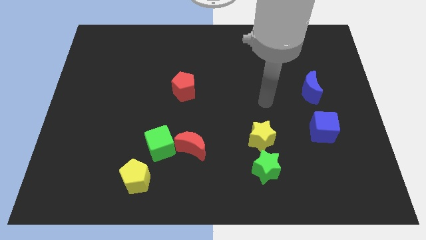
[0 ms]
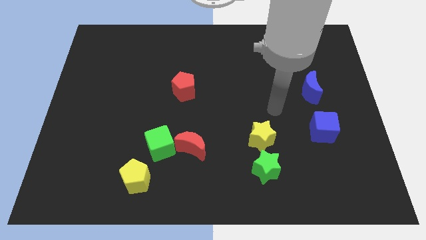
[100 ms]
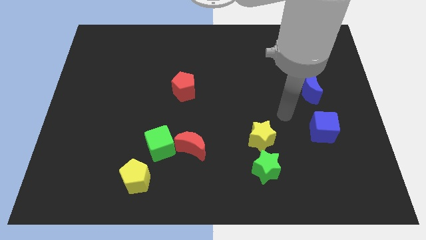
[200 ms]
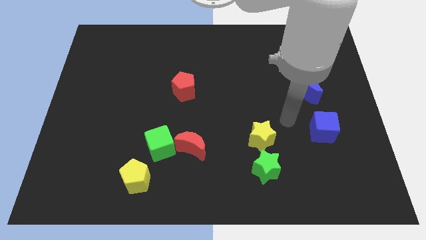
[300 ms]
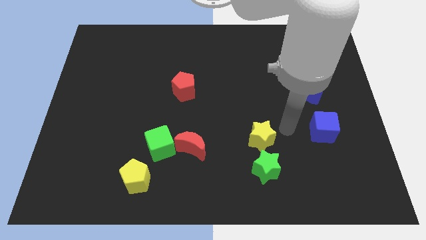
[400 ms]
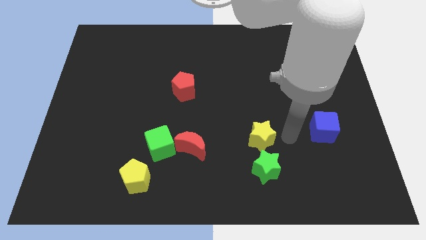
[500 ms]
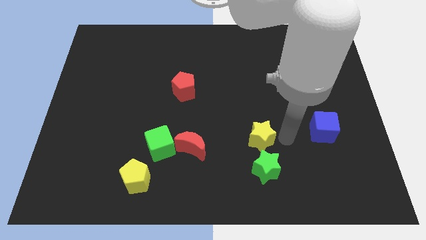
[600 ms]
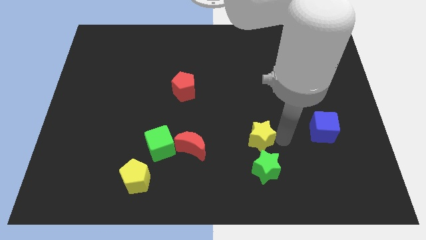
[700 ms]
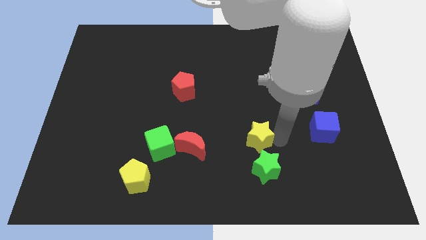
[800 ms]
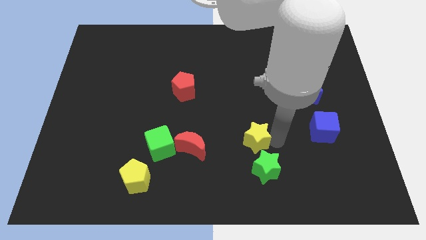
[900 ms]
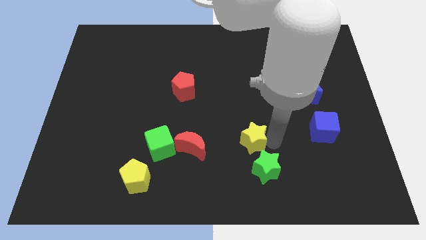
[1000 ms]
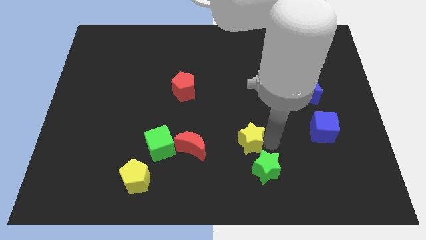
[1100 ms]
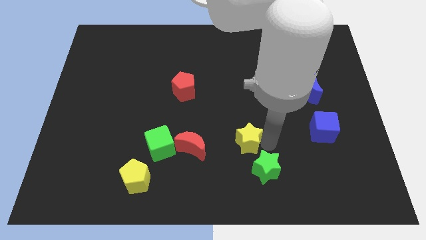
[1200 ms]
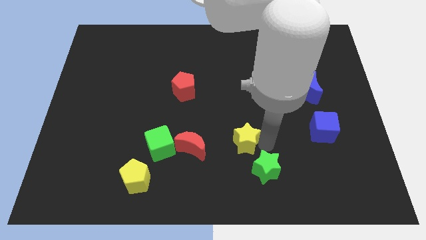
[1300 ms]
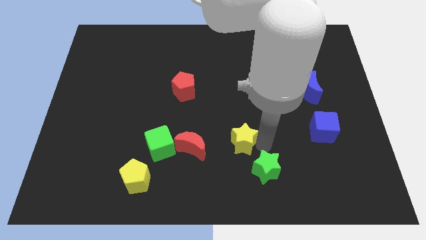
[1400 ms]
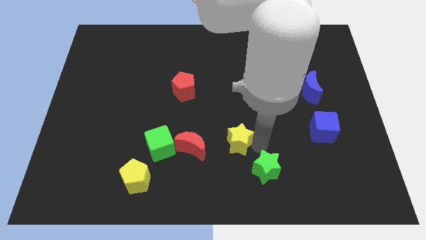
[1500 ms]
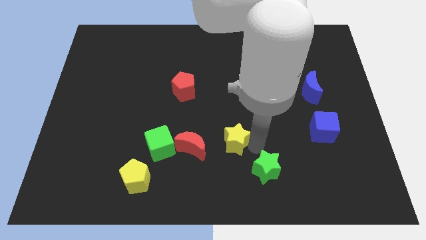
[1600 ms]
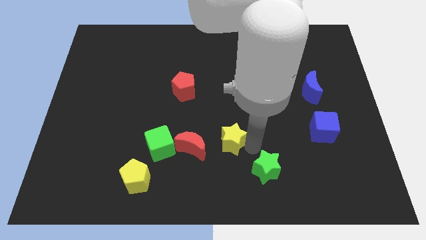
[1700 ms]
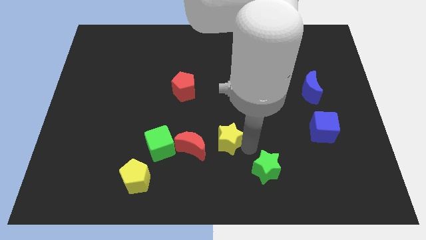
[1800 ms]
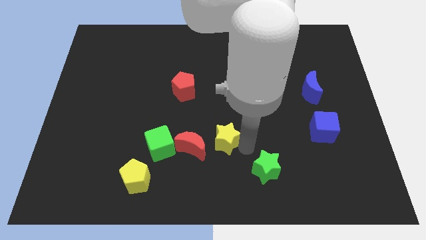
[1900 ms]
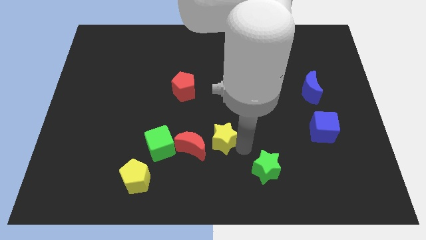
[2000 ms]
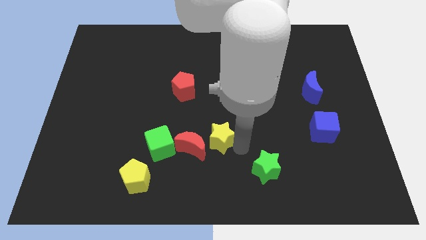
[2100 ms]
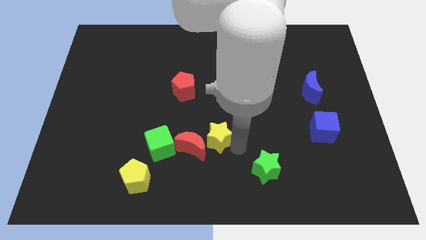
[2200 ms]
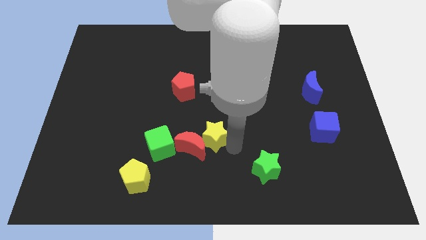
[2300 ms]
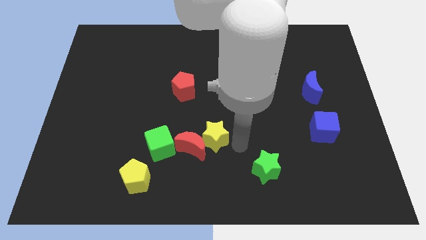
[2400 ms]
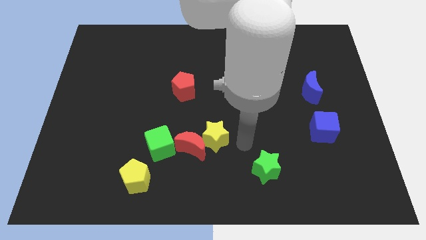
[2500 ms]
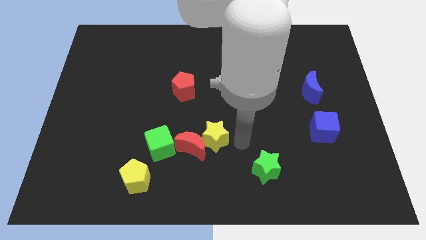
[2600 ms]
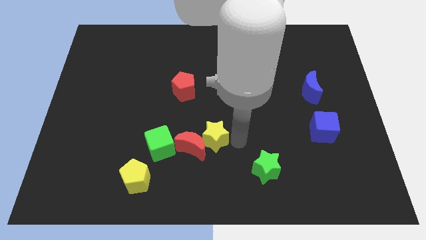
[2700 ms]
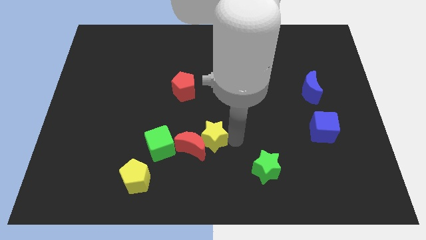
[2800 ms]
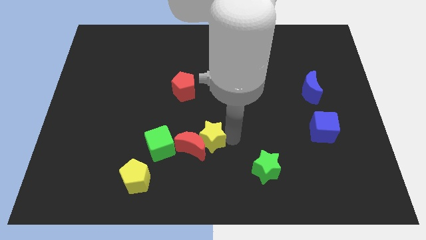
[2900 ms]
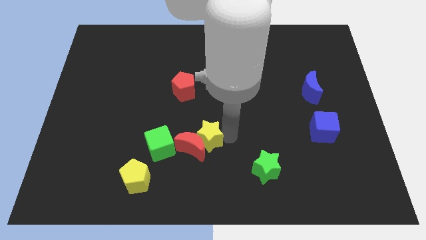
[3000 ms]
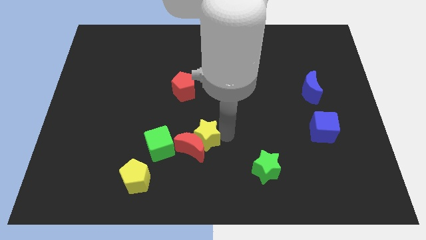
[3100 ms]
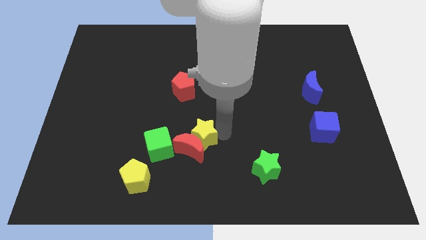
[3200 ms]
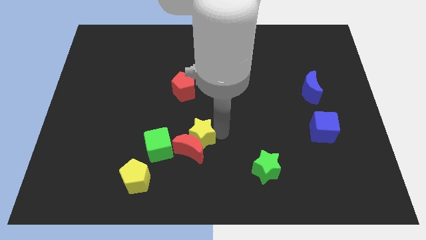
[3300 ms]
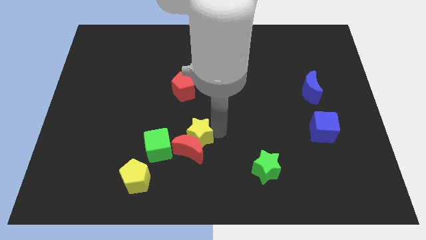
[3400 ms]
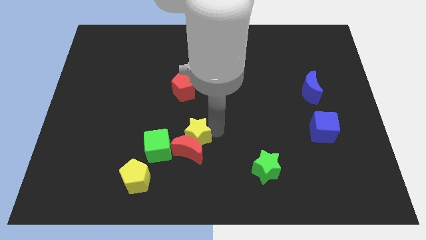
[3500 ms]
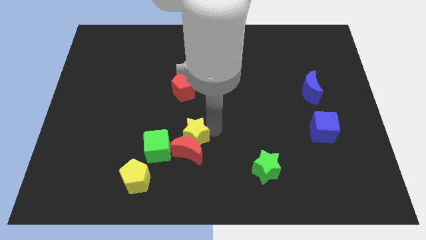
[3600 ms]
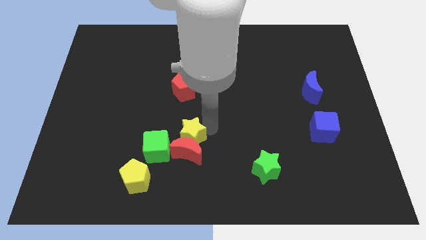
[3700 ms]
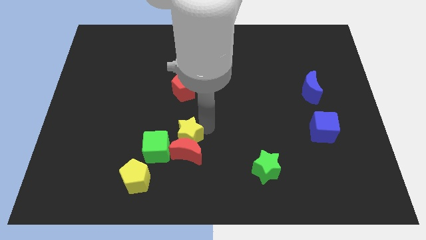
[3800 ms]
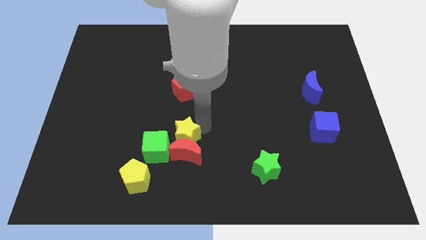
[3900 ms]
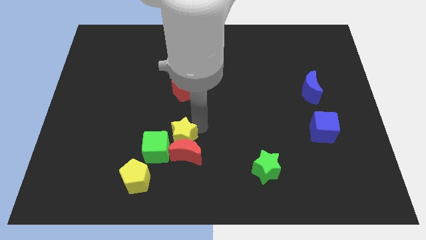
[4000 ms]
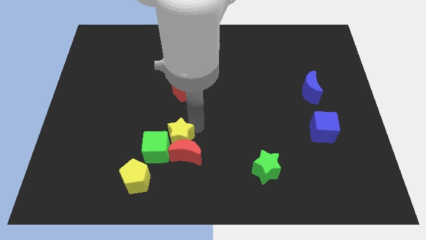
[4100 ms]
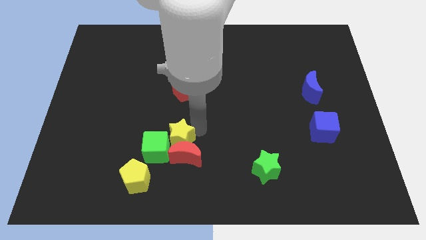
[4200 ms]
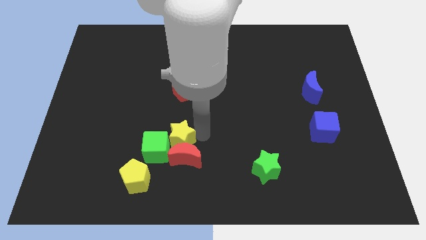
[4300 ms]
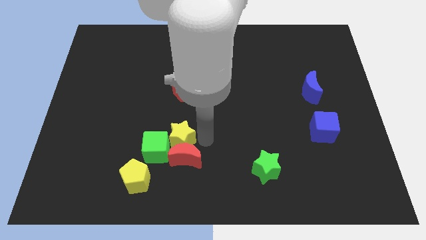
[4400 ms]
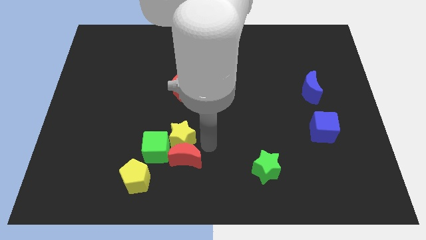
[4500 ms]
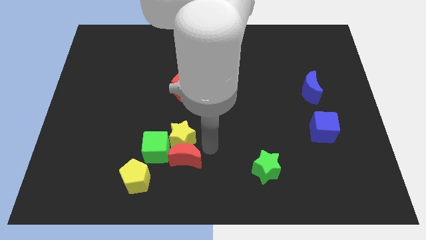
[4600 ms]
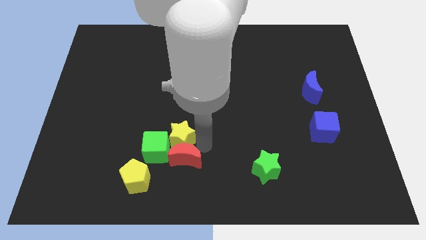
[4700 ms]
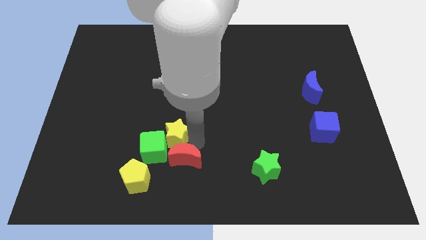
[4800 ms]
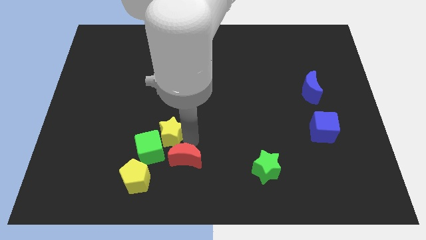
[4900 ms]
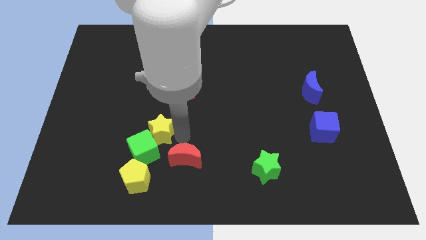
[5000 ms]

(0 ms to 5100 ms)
push the yellow star left

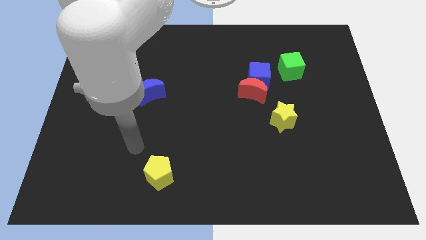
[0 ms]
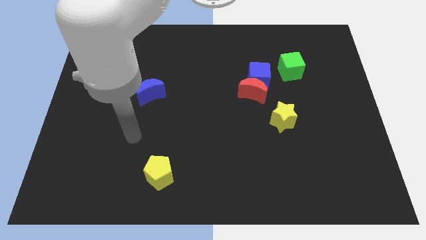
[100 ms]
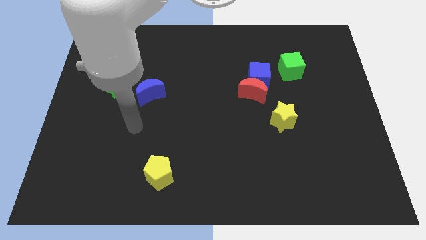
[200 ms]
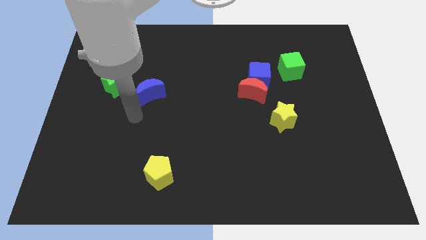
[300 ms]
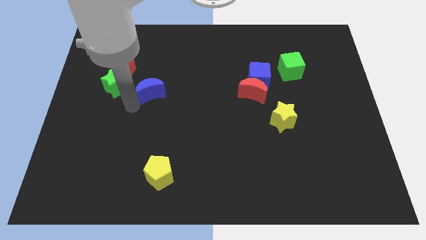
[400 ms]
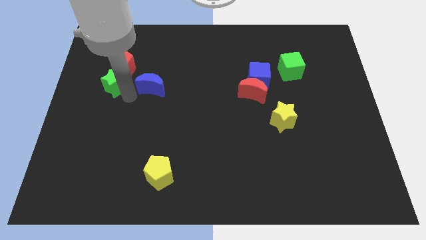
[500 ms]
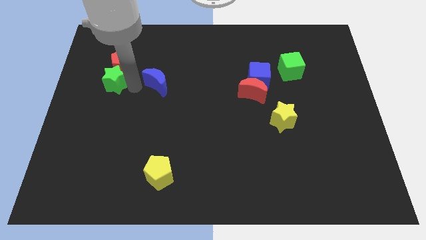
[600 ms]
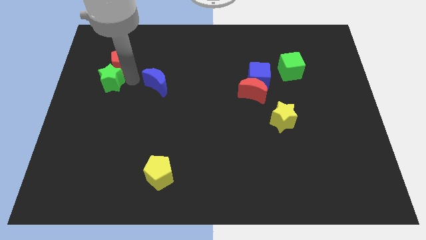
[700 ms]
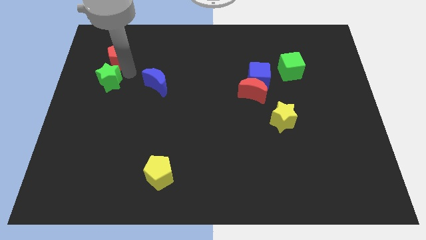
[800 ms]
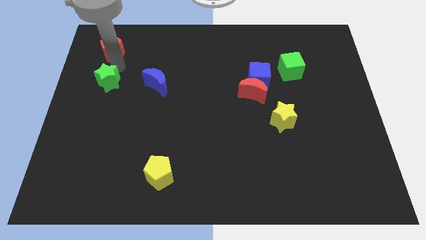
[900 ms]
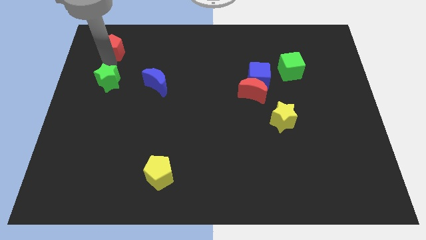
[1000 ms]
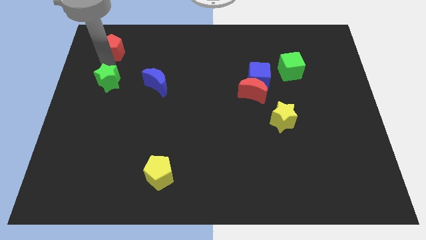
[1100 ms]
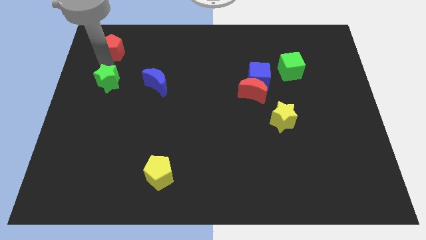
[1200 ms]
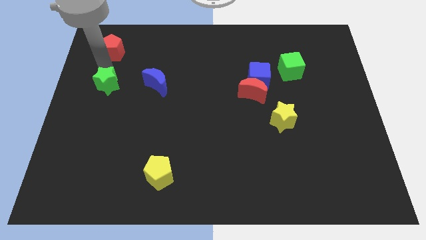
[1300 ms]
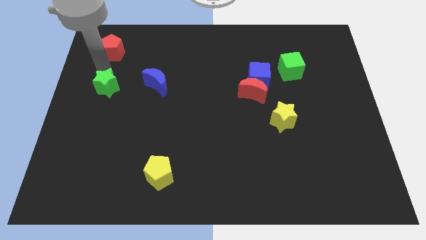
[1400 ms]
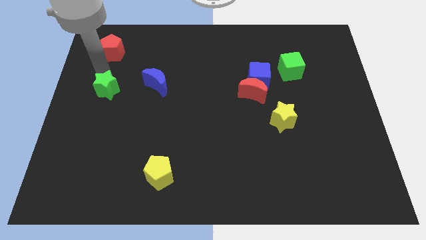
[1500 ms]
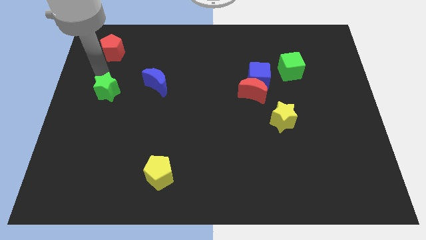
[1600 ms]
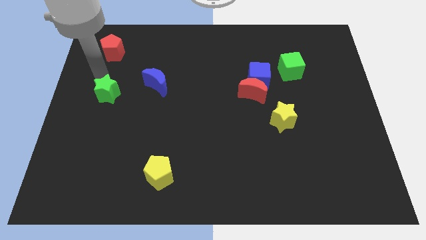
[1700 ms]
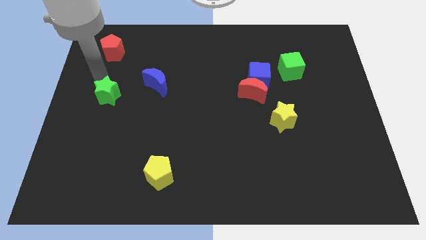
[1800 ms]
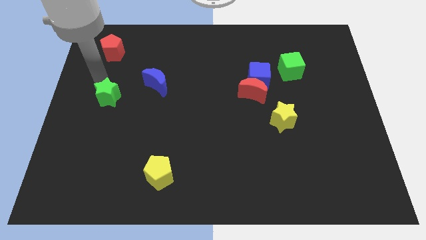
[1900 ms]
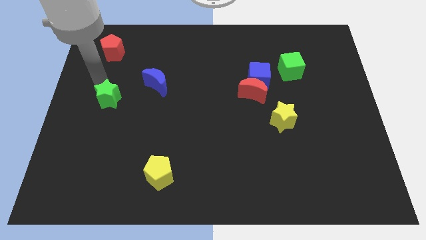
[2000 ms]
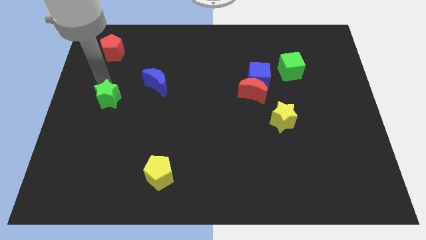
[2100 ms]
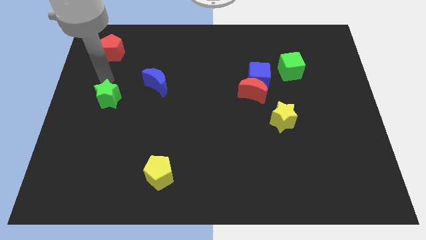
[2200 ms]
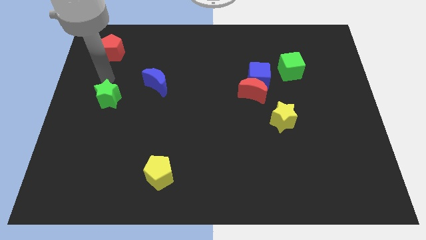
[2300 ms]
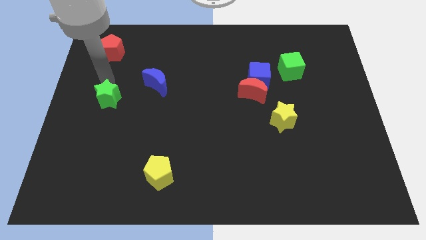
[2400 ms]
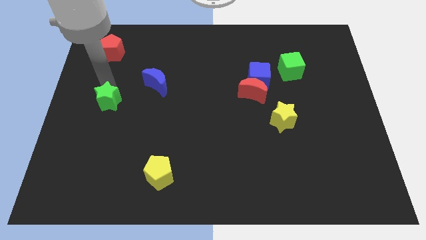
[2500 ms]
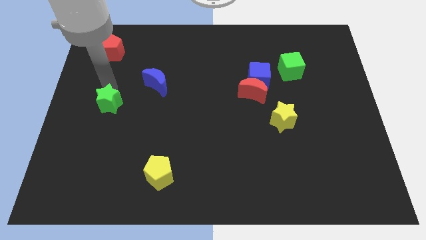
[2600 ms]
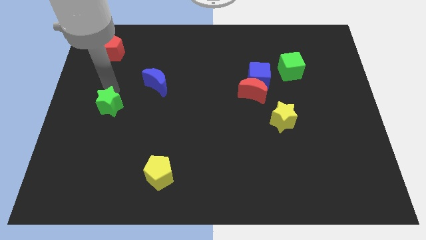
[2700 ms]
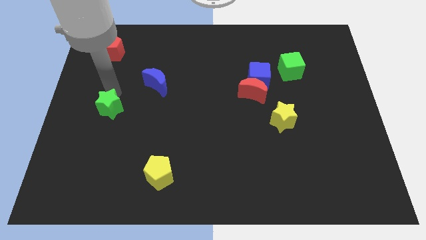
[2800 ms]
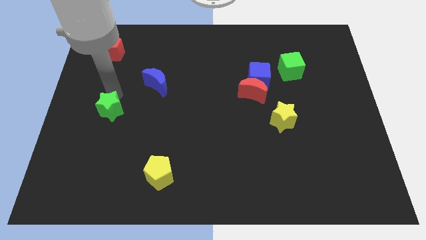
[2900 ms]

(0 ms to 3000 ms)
slightly move the green star downwards
